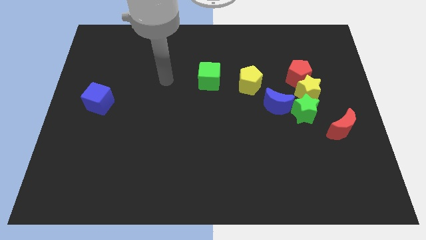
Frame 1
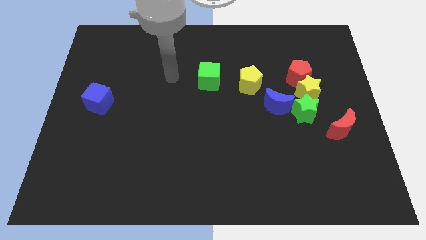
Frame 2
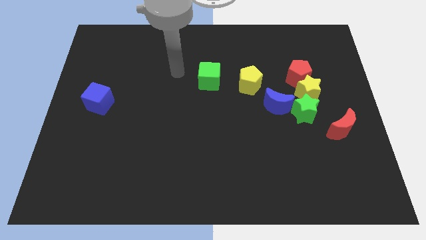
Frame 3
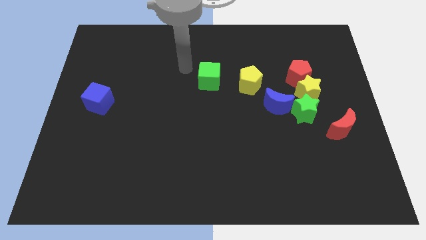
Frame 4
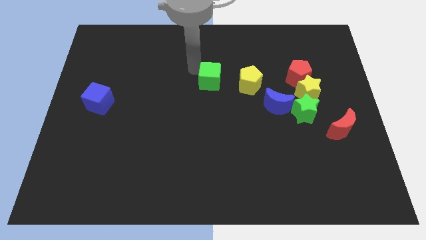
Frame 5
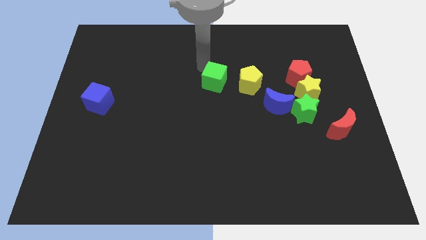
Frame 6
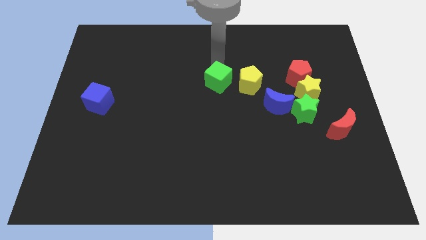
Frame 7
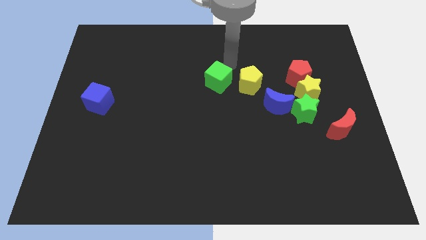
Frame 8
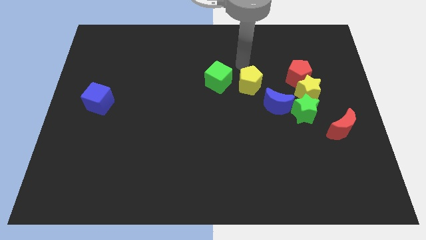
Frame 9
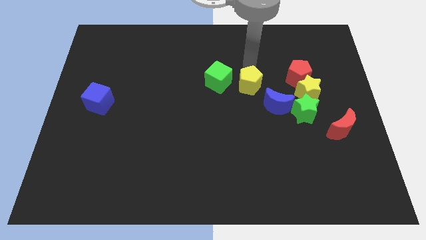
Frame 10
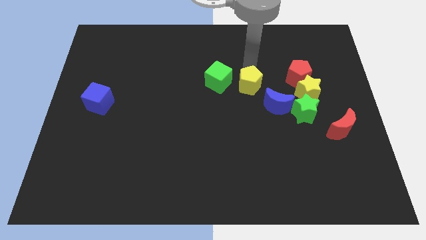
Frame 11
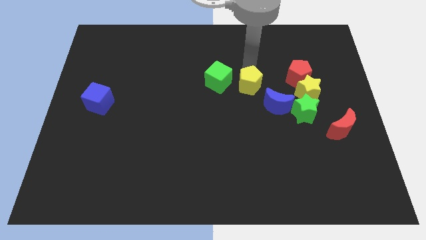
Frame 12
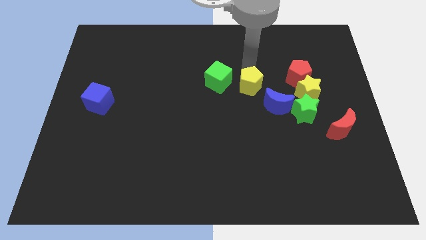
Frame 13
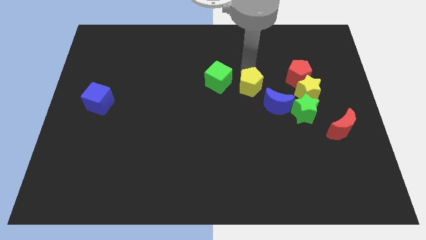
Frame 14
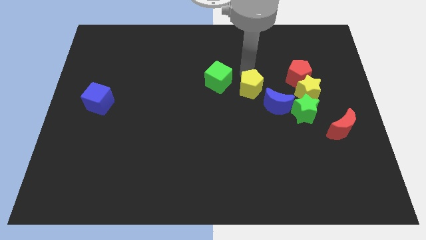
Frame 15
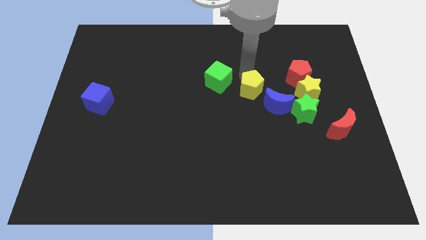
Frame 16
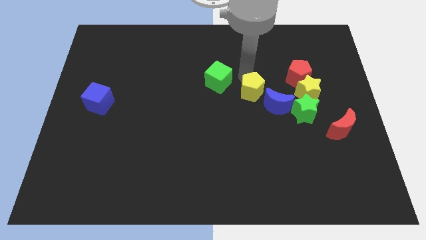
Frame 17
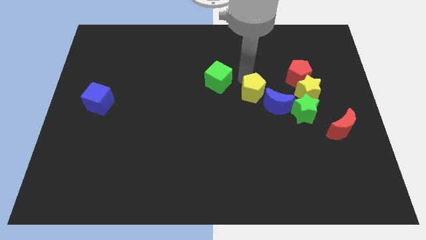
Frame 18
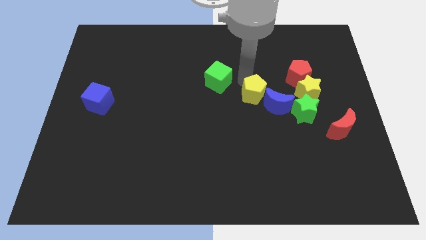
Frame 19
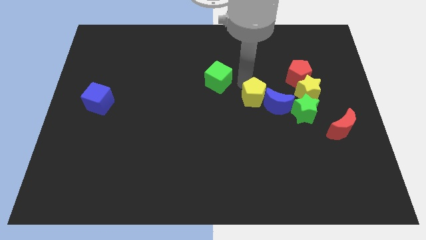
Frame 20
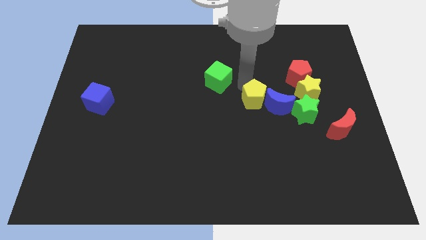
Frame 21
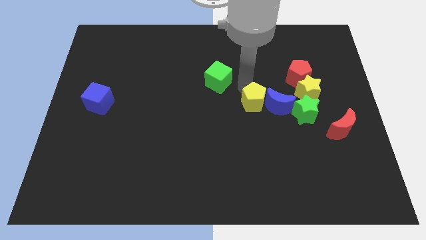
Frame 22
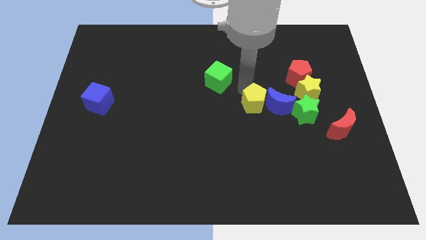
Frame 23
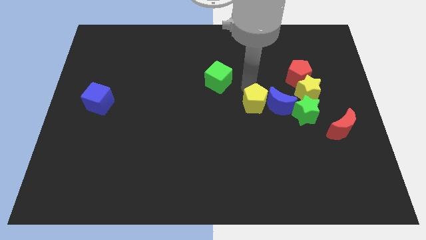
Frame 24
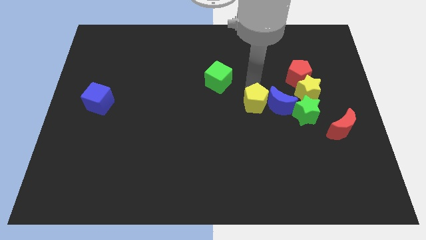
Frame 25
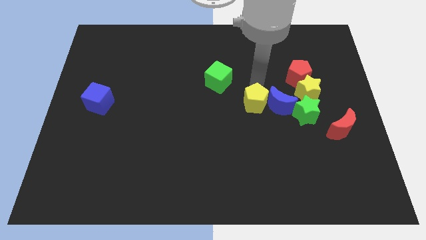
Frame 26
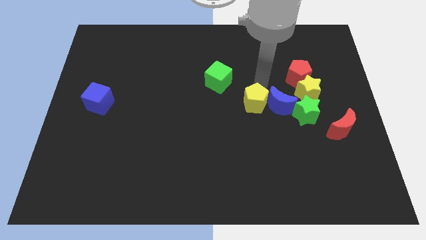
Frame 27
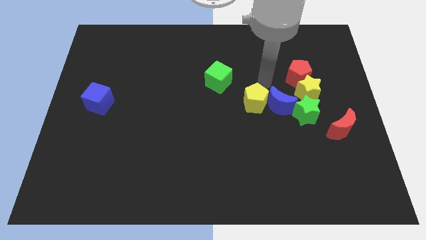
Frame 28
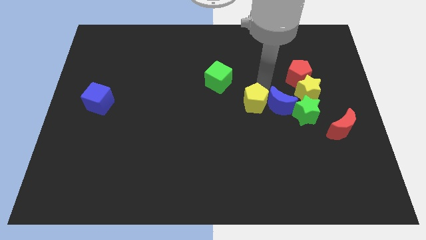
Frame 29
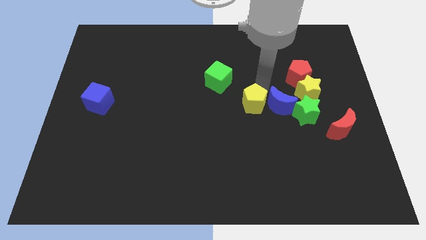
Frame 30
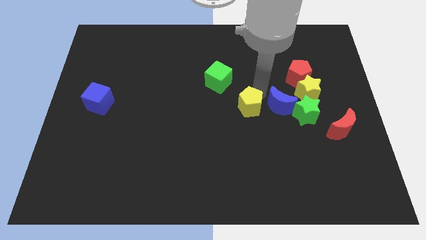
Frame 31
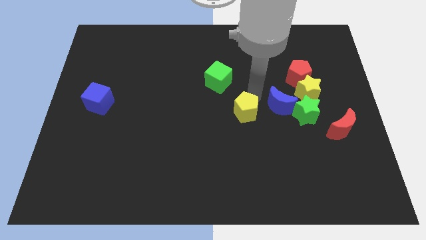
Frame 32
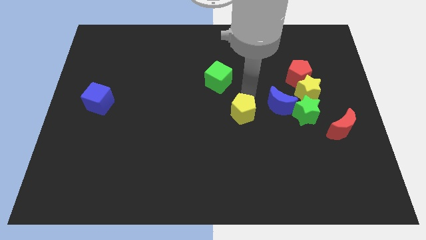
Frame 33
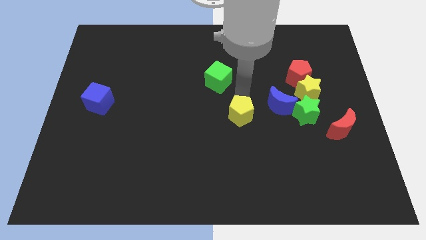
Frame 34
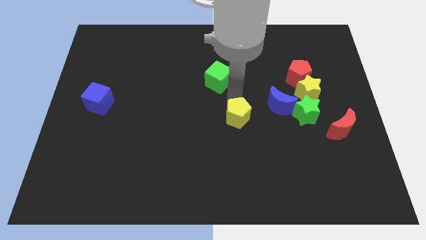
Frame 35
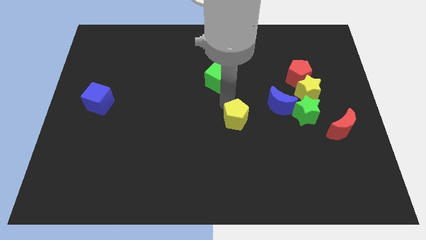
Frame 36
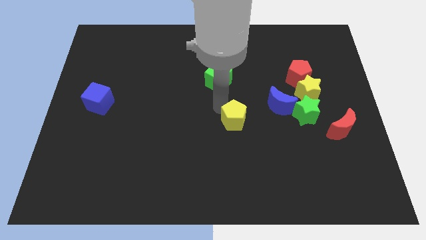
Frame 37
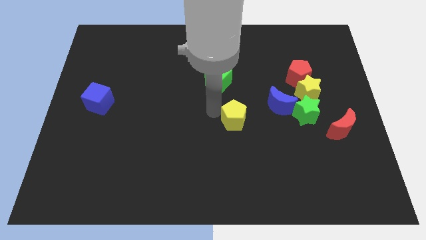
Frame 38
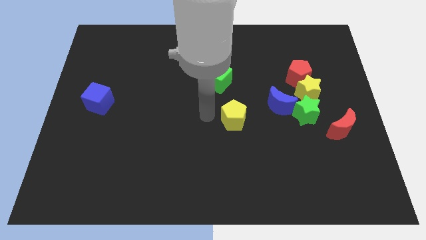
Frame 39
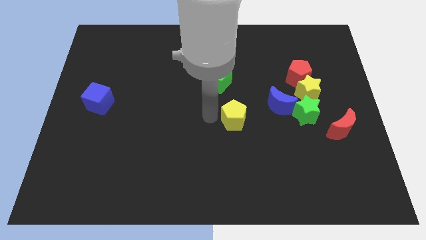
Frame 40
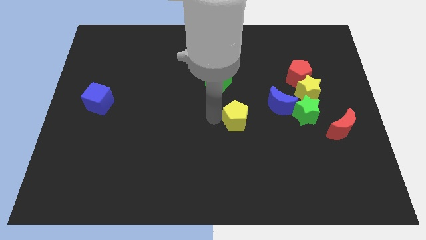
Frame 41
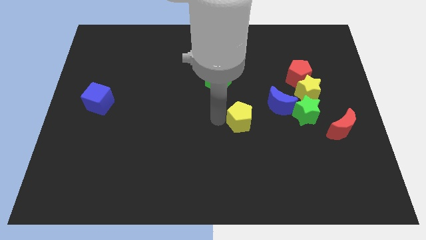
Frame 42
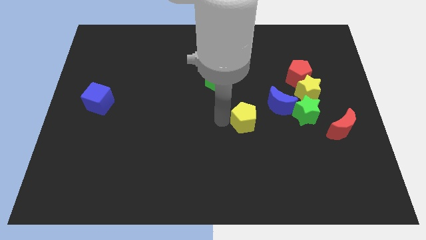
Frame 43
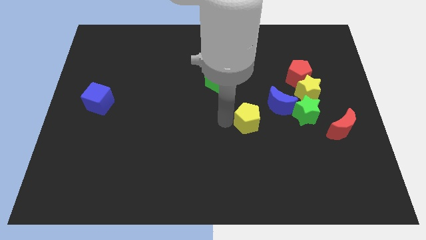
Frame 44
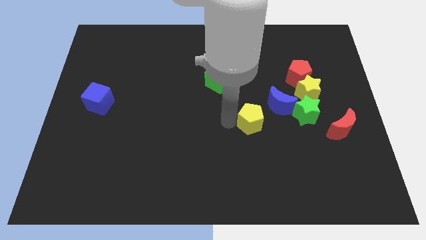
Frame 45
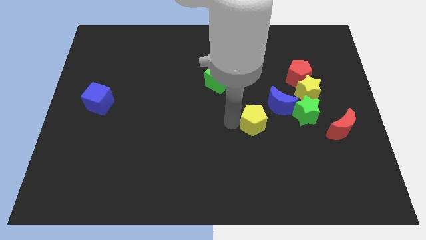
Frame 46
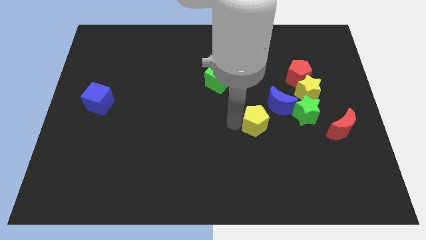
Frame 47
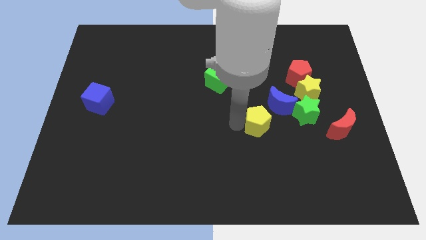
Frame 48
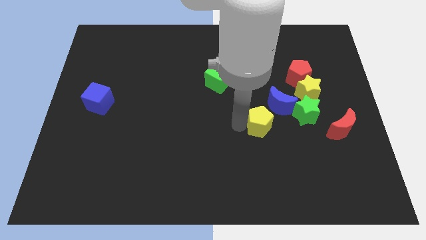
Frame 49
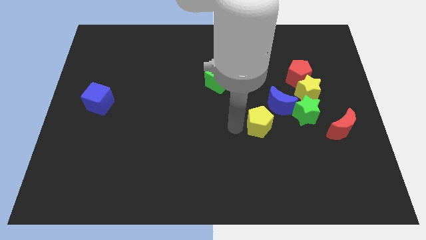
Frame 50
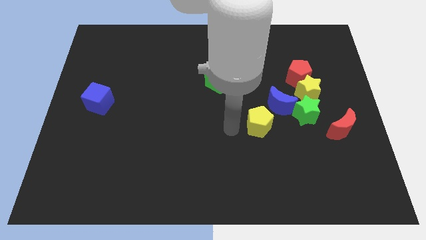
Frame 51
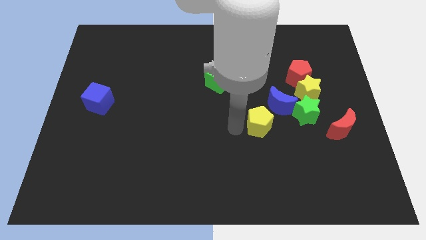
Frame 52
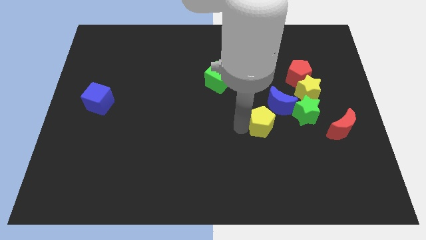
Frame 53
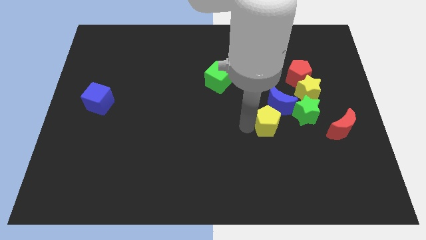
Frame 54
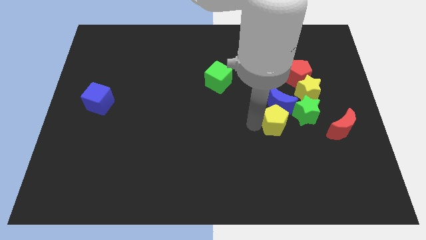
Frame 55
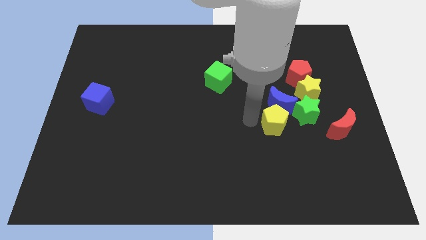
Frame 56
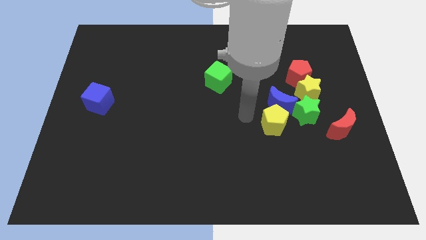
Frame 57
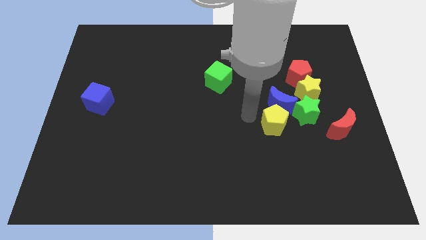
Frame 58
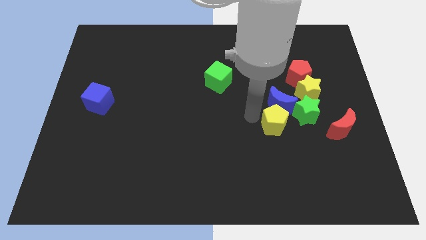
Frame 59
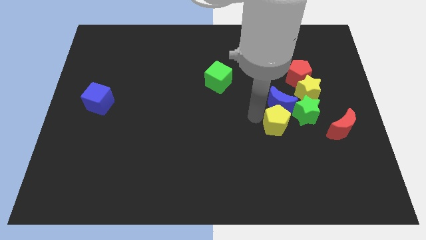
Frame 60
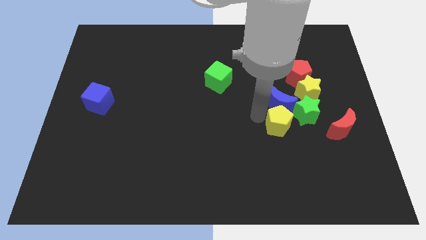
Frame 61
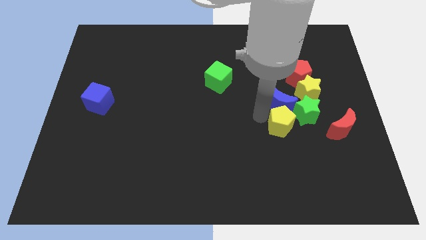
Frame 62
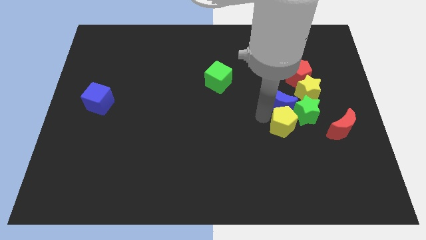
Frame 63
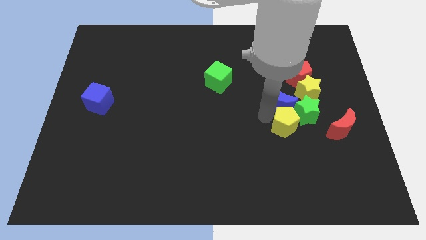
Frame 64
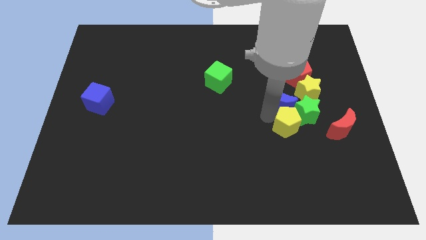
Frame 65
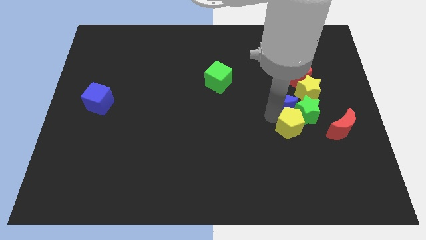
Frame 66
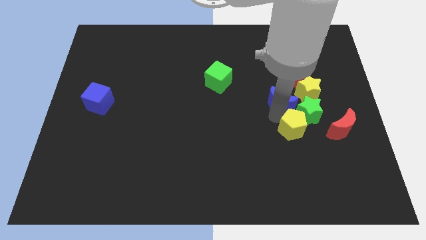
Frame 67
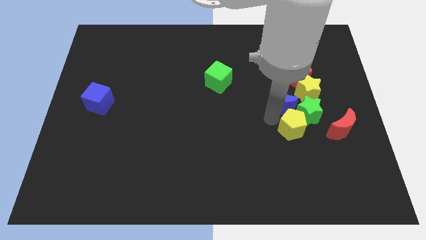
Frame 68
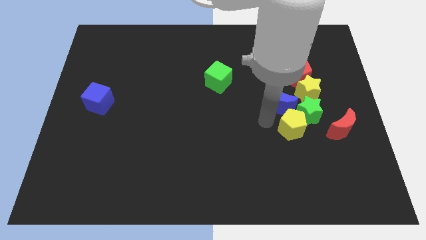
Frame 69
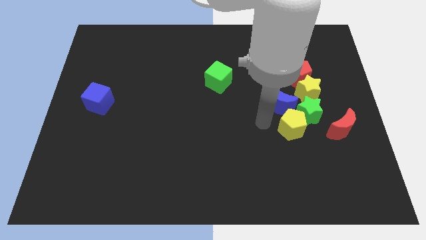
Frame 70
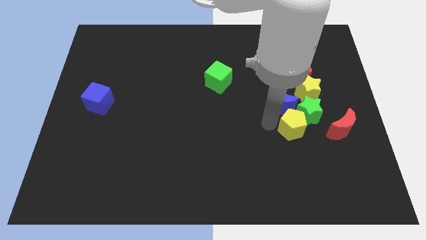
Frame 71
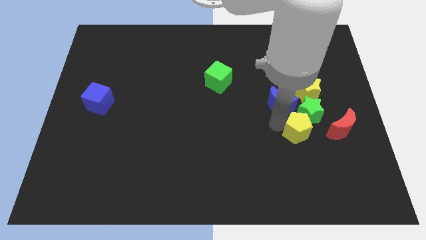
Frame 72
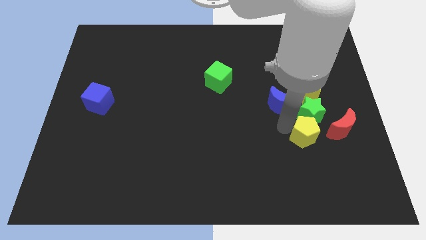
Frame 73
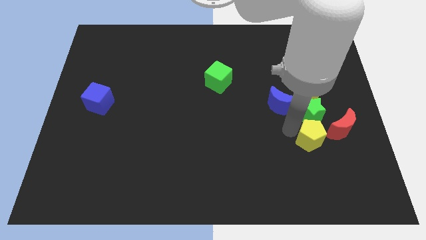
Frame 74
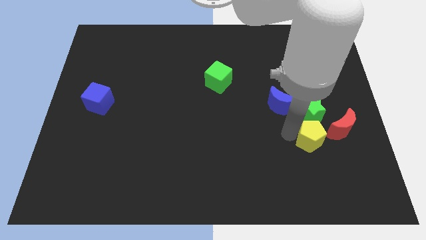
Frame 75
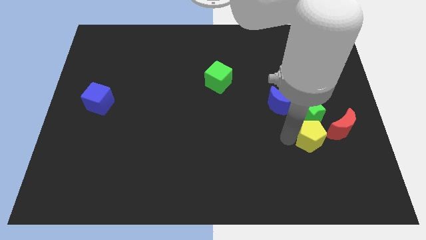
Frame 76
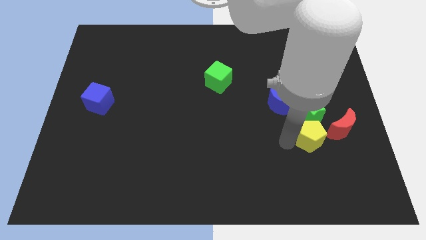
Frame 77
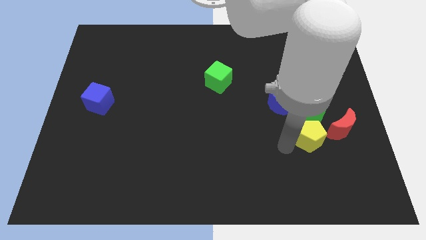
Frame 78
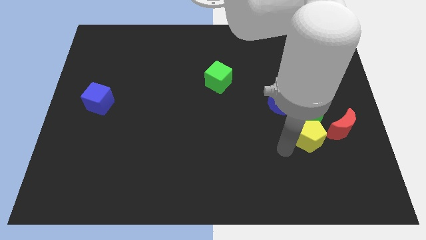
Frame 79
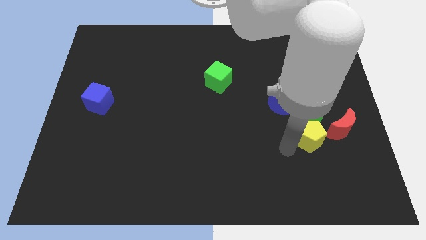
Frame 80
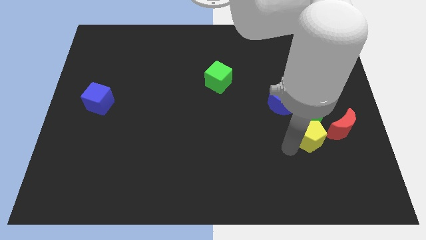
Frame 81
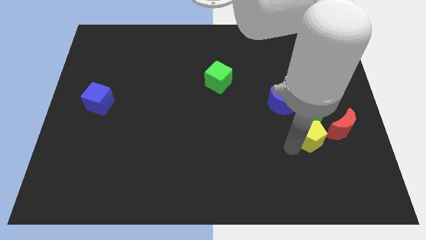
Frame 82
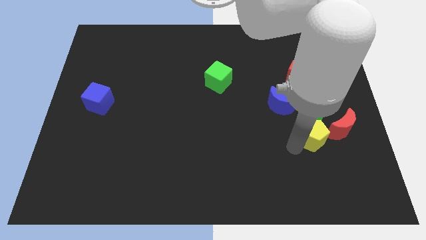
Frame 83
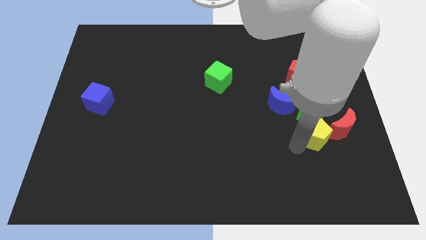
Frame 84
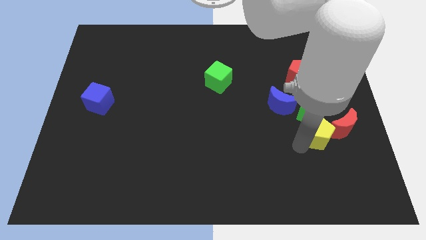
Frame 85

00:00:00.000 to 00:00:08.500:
put the yellow pentagon close to the red moon
